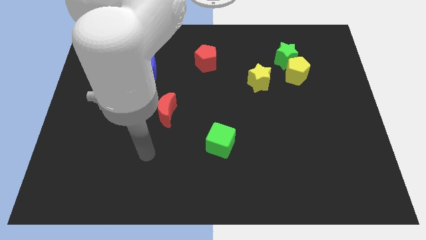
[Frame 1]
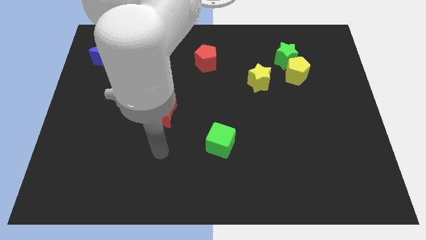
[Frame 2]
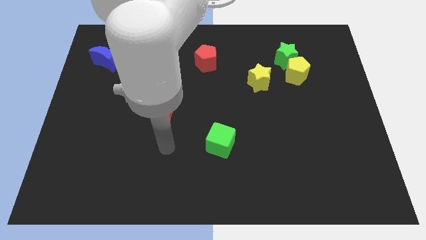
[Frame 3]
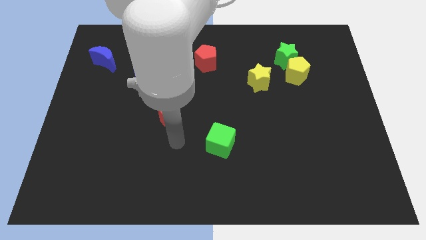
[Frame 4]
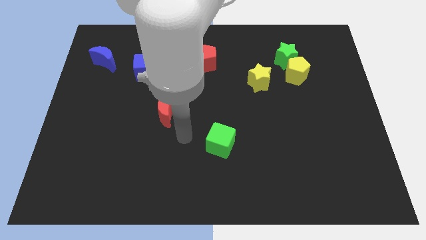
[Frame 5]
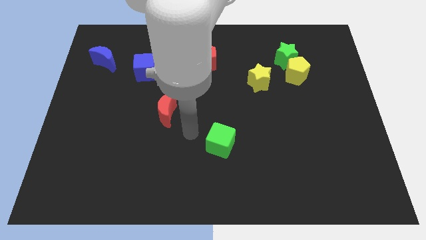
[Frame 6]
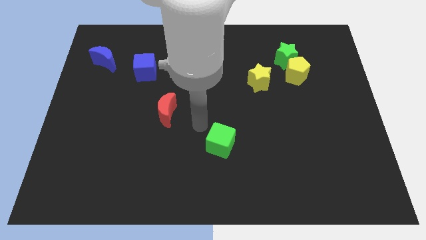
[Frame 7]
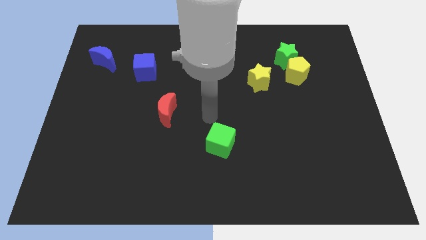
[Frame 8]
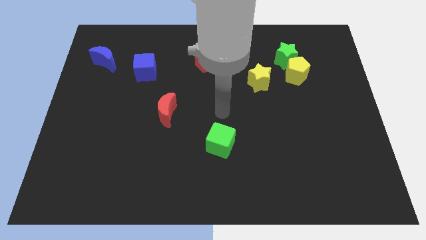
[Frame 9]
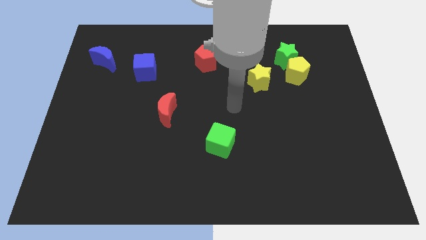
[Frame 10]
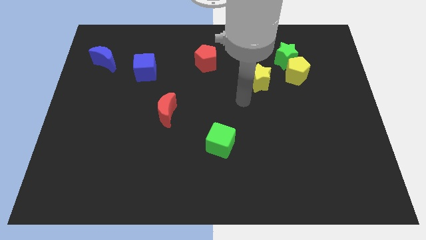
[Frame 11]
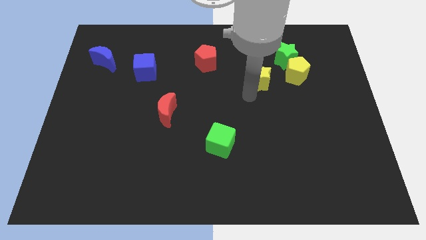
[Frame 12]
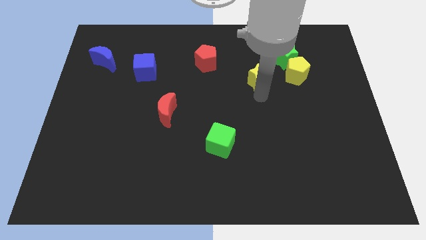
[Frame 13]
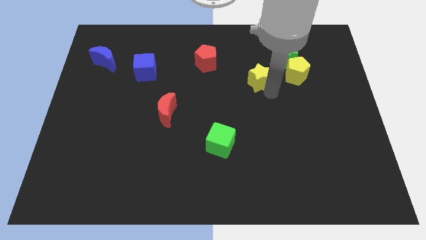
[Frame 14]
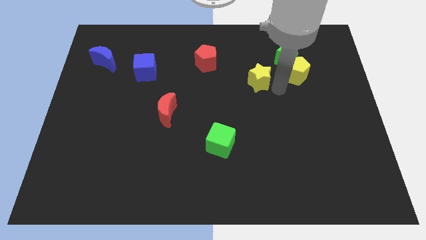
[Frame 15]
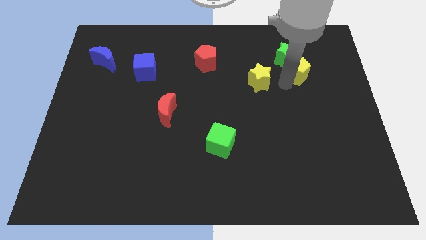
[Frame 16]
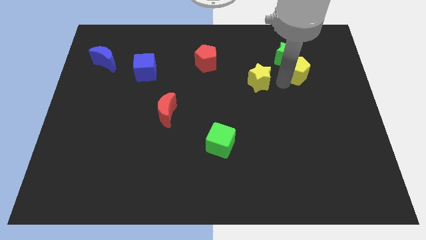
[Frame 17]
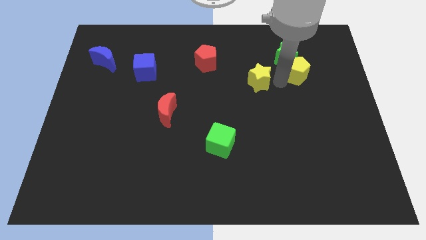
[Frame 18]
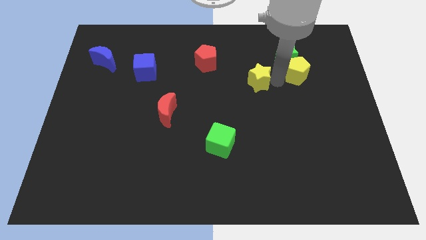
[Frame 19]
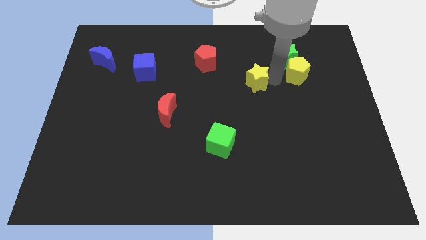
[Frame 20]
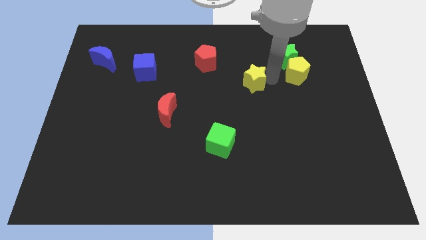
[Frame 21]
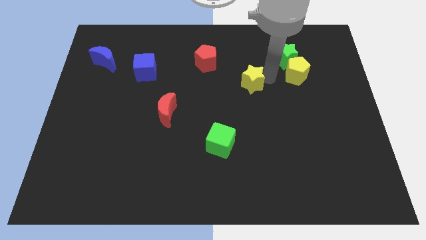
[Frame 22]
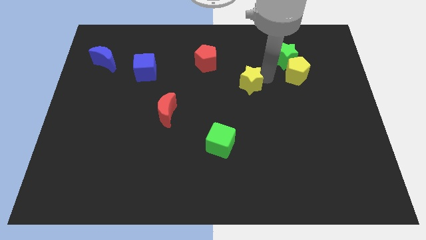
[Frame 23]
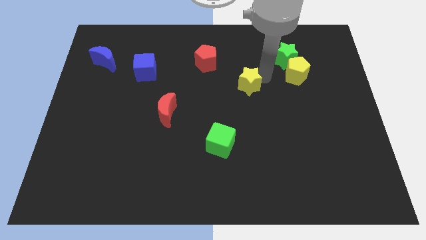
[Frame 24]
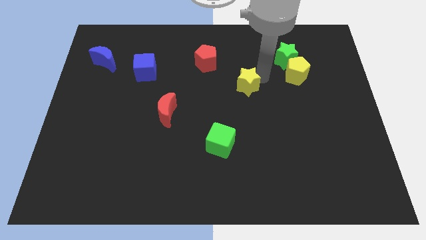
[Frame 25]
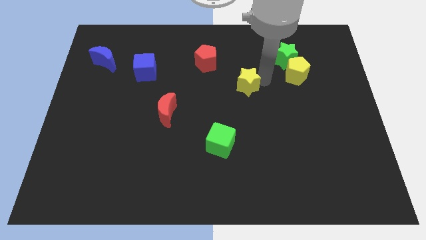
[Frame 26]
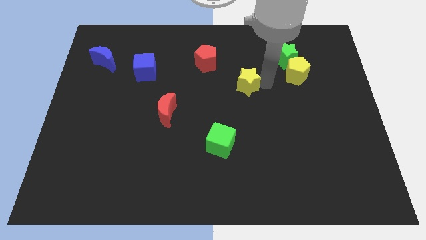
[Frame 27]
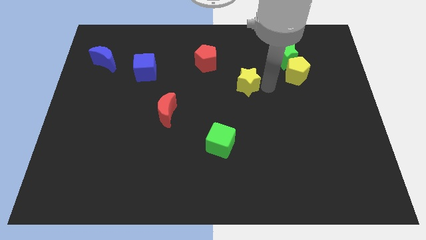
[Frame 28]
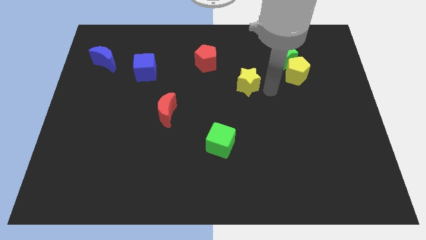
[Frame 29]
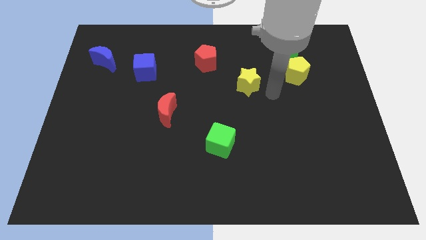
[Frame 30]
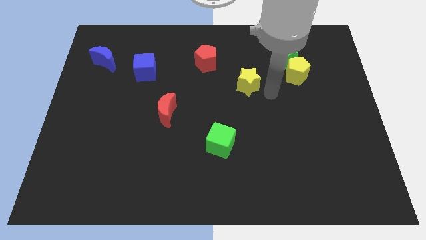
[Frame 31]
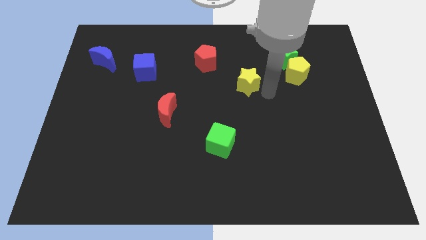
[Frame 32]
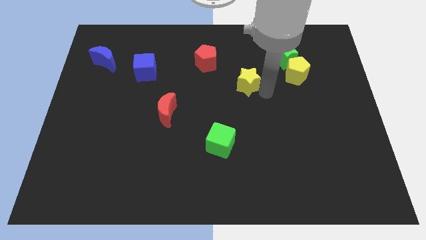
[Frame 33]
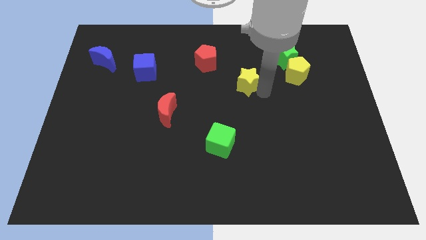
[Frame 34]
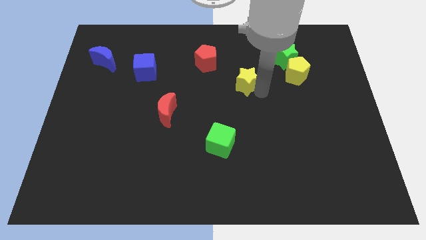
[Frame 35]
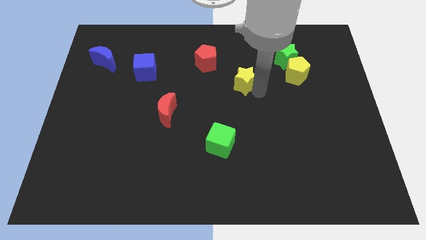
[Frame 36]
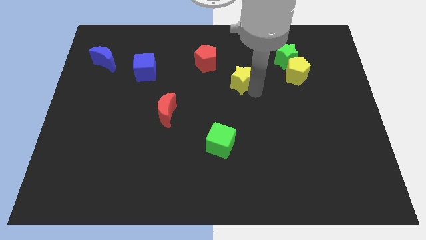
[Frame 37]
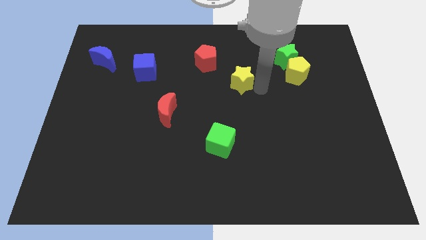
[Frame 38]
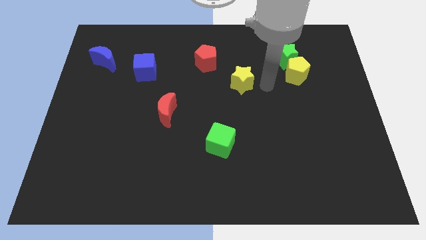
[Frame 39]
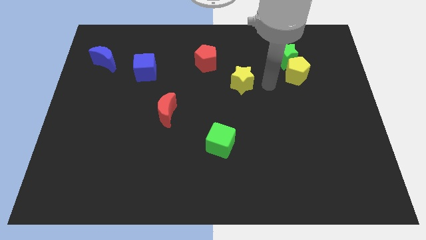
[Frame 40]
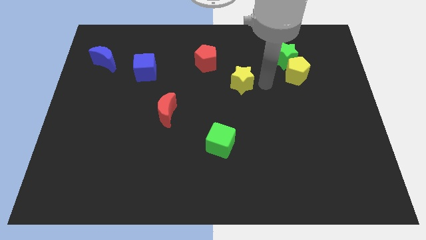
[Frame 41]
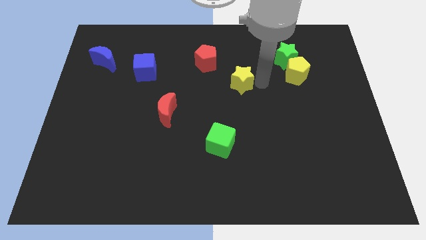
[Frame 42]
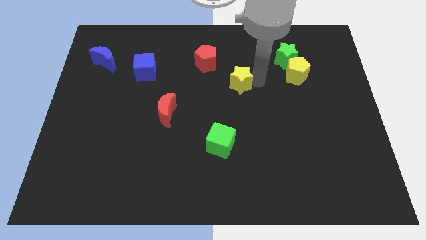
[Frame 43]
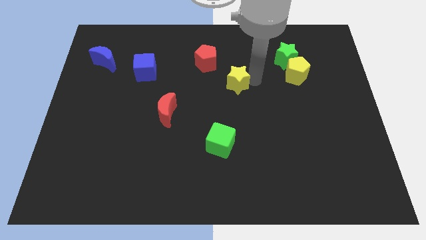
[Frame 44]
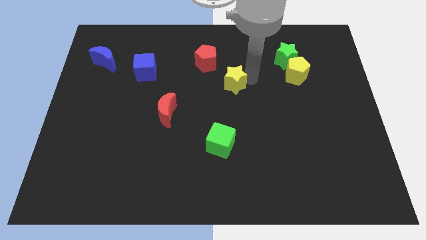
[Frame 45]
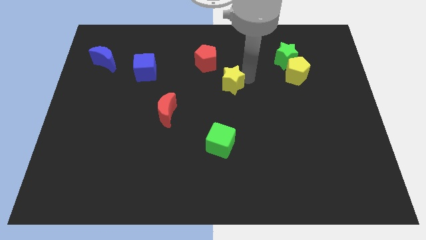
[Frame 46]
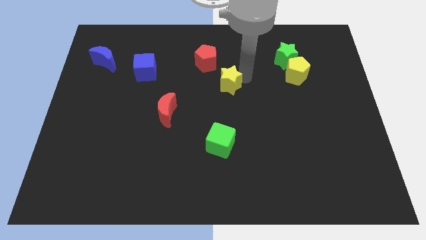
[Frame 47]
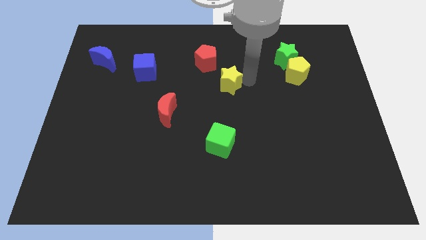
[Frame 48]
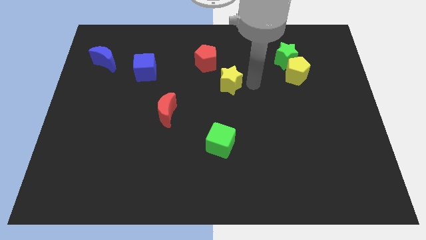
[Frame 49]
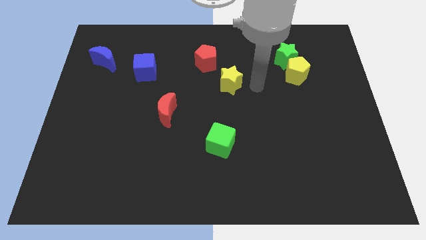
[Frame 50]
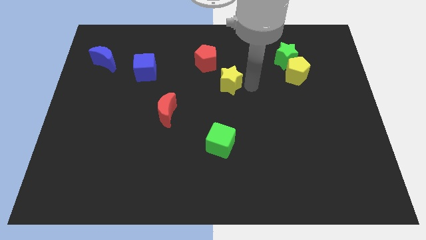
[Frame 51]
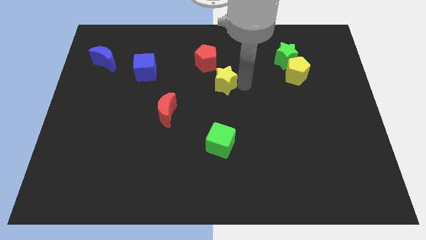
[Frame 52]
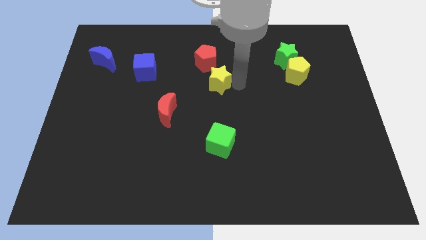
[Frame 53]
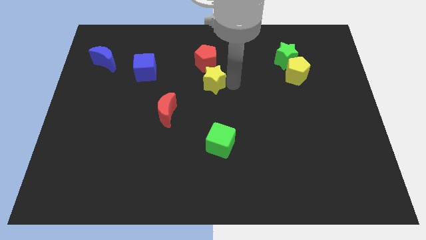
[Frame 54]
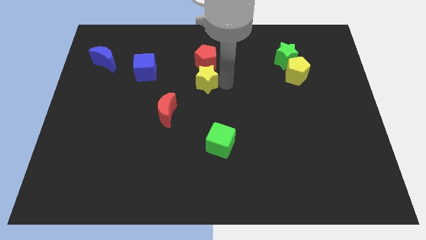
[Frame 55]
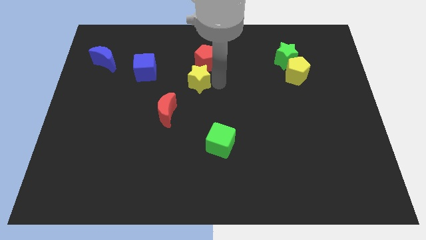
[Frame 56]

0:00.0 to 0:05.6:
push the yellow star to the bottom left of the red pentagon

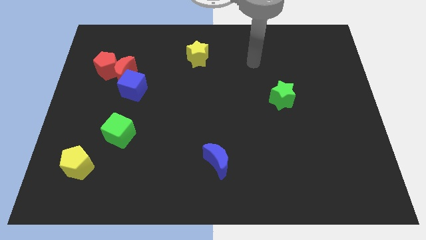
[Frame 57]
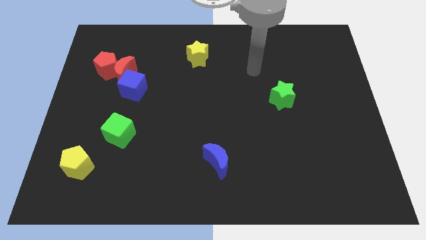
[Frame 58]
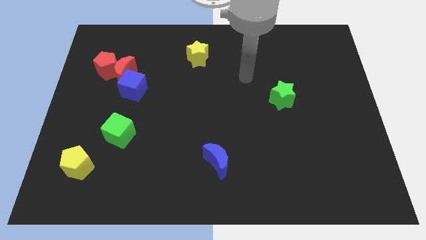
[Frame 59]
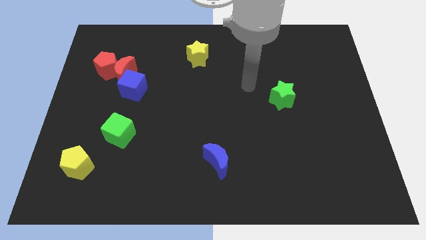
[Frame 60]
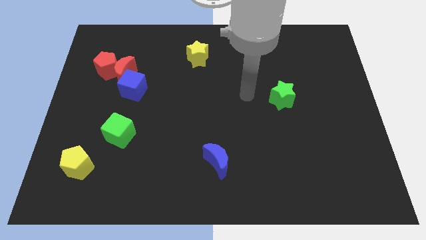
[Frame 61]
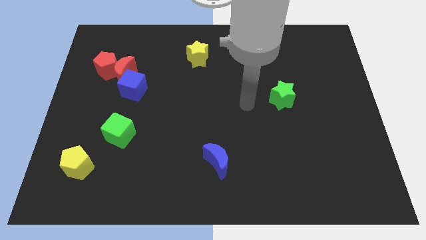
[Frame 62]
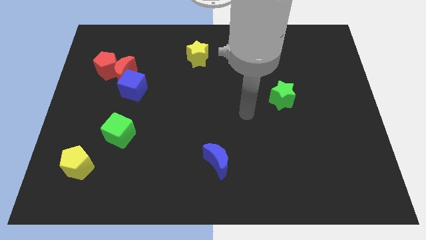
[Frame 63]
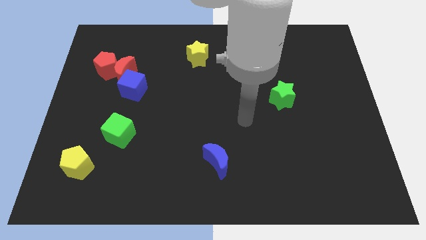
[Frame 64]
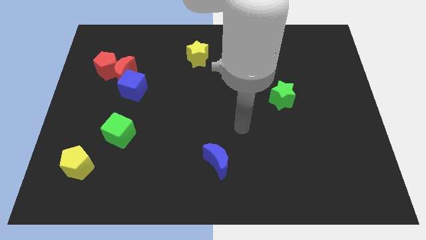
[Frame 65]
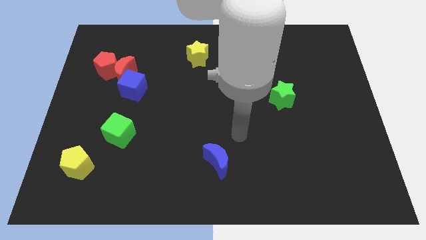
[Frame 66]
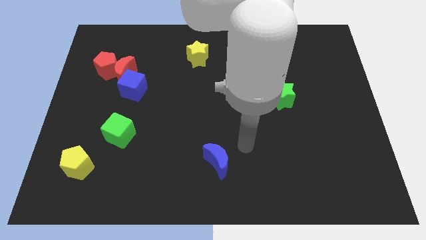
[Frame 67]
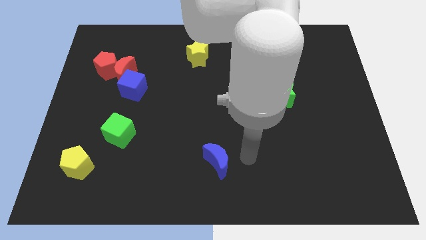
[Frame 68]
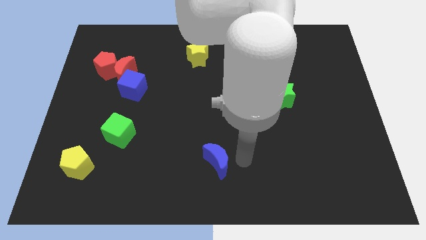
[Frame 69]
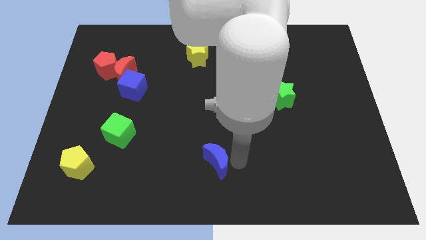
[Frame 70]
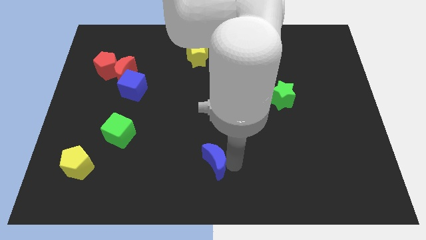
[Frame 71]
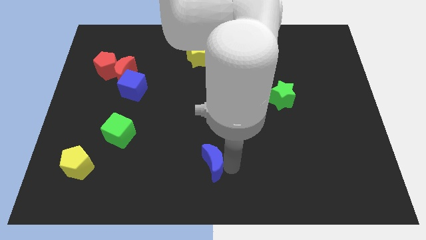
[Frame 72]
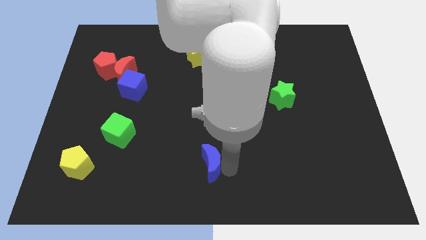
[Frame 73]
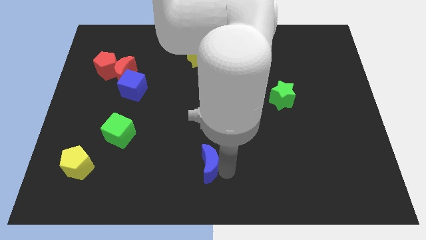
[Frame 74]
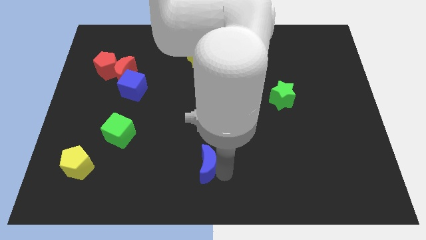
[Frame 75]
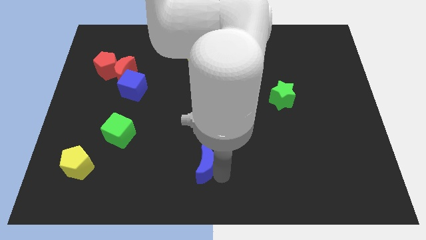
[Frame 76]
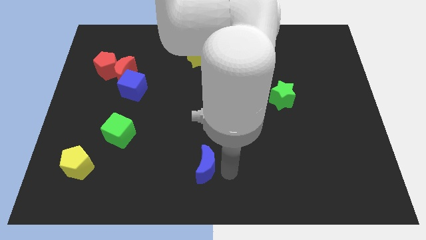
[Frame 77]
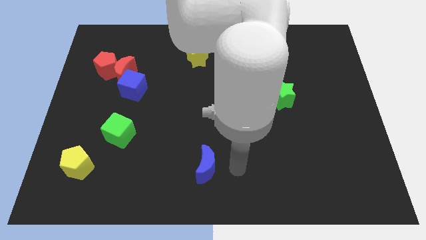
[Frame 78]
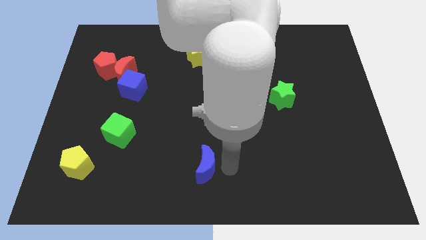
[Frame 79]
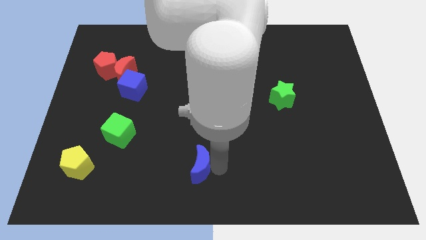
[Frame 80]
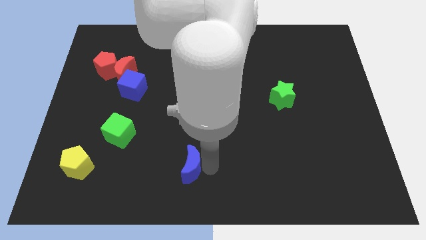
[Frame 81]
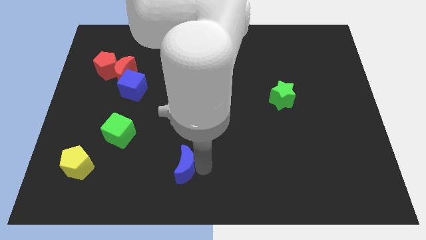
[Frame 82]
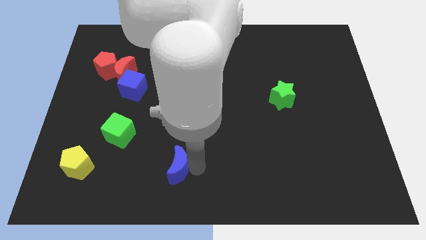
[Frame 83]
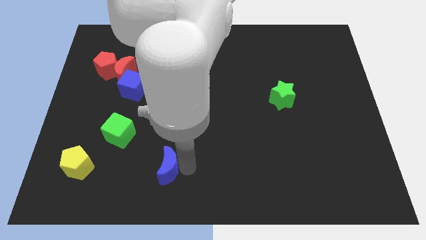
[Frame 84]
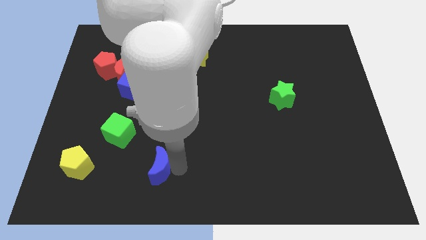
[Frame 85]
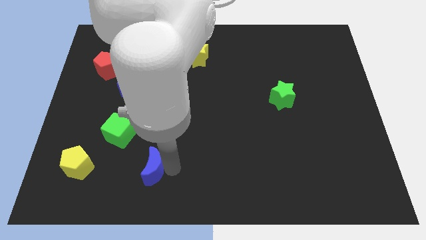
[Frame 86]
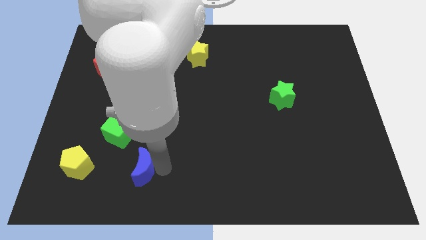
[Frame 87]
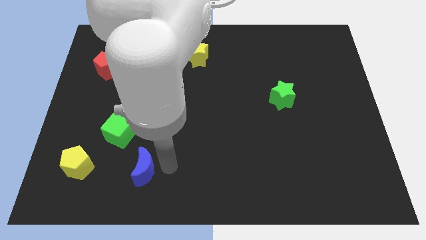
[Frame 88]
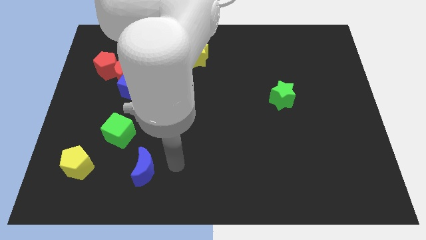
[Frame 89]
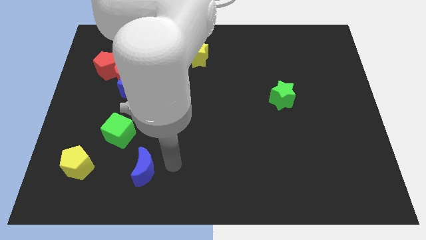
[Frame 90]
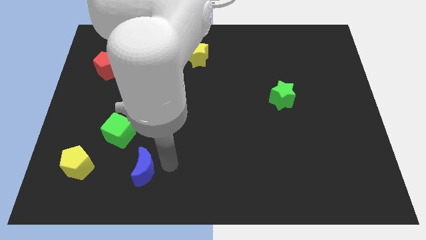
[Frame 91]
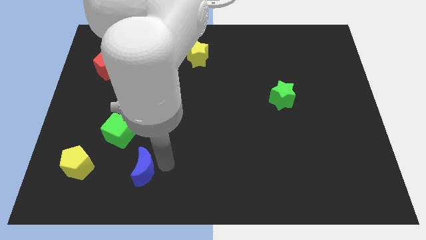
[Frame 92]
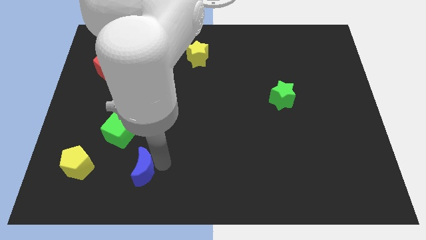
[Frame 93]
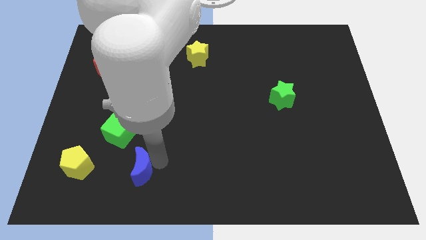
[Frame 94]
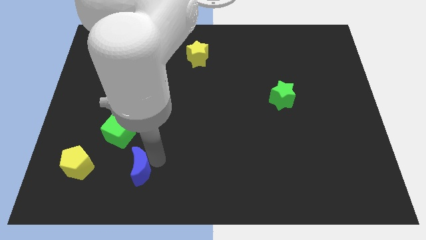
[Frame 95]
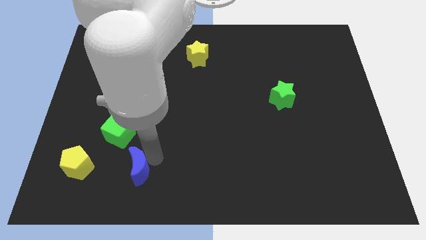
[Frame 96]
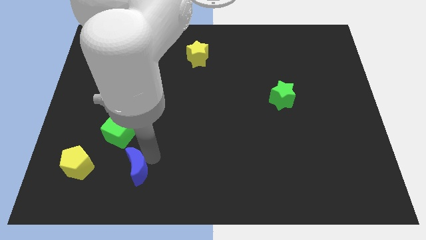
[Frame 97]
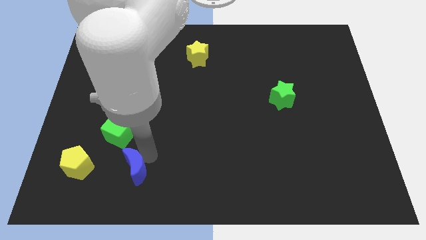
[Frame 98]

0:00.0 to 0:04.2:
move the blue moon below the green cube
